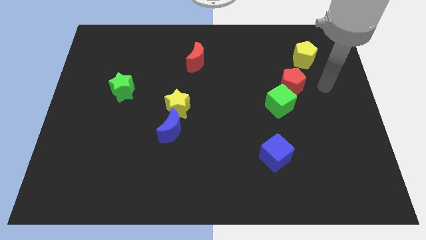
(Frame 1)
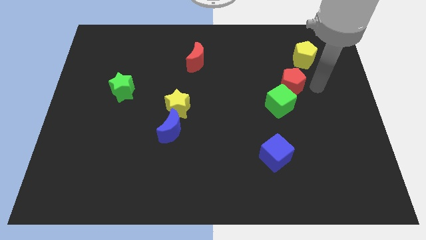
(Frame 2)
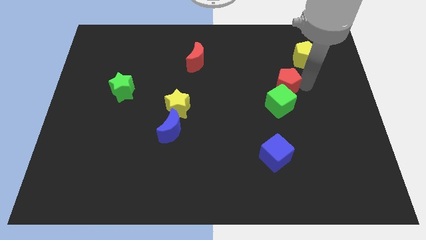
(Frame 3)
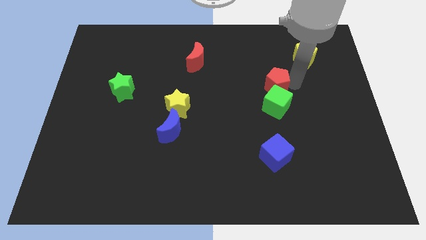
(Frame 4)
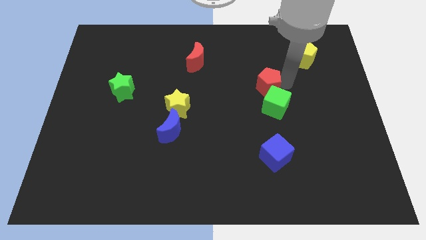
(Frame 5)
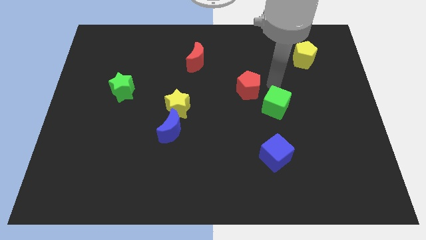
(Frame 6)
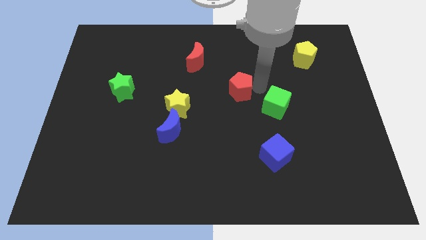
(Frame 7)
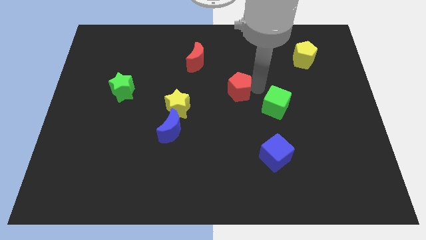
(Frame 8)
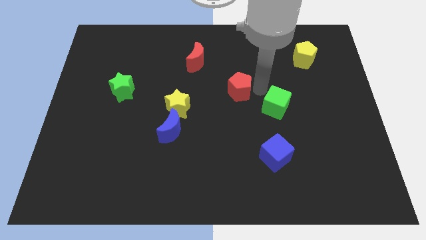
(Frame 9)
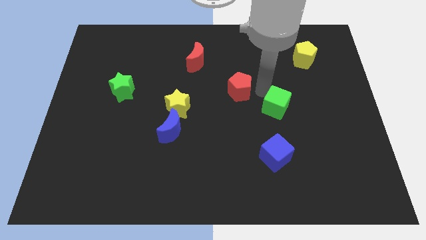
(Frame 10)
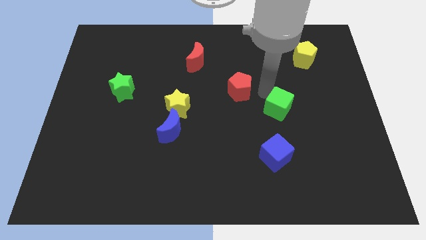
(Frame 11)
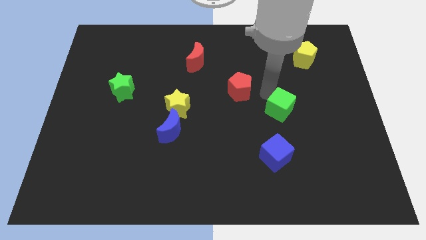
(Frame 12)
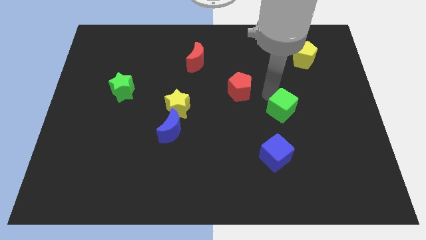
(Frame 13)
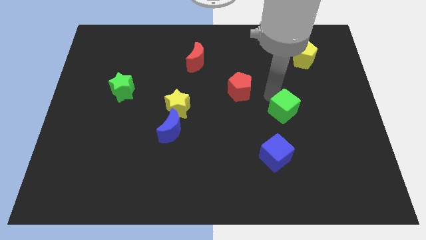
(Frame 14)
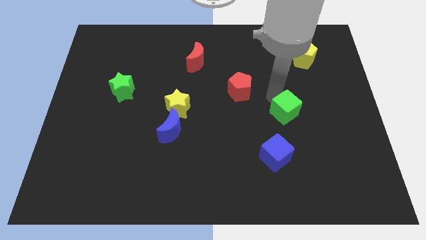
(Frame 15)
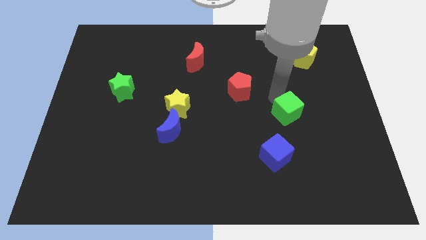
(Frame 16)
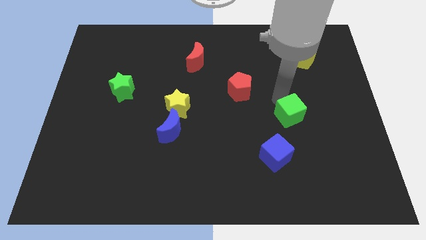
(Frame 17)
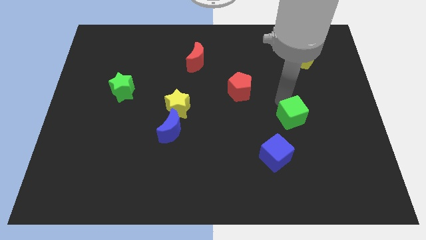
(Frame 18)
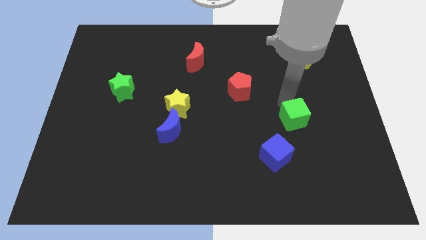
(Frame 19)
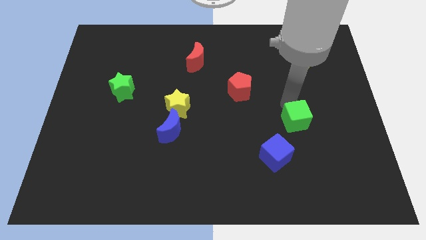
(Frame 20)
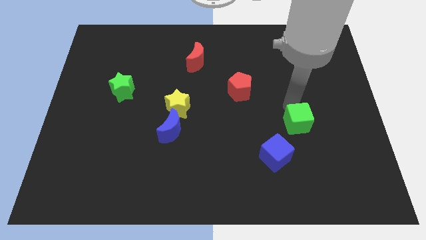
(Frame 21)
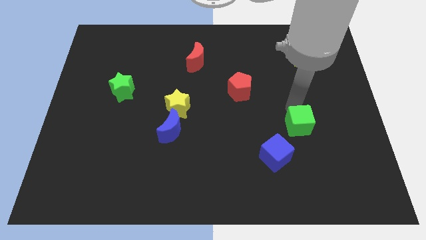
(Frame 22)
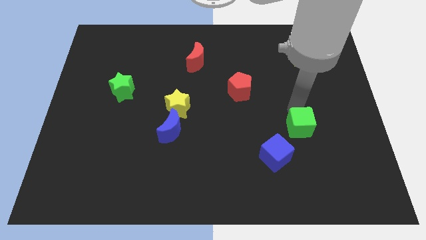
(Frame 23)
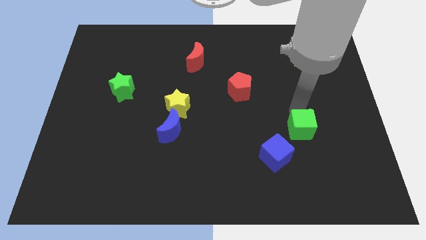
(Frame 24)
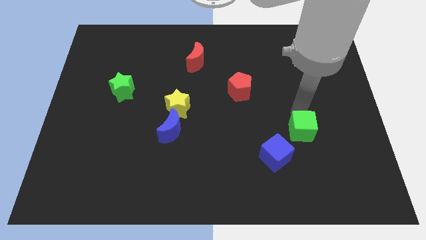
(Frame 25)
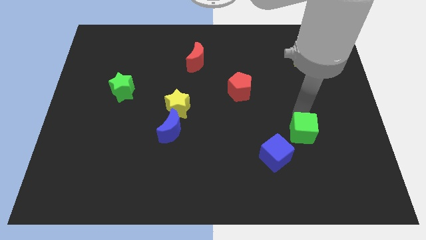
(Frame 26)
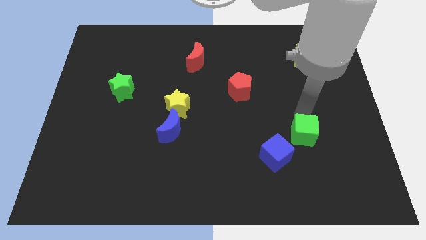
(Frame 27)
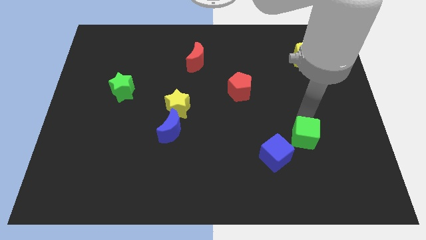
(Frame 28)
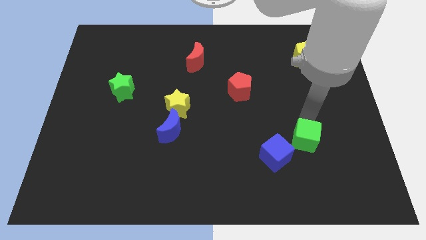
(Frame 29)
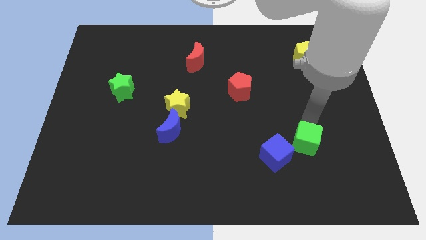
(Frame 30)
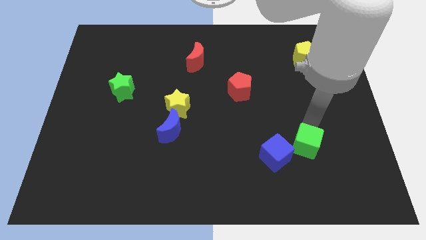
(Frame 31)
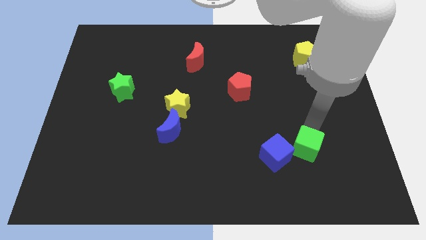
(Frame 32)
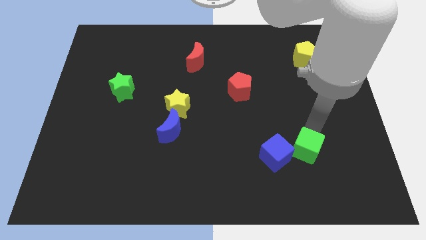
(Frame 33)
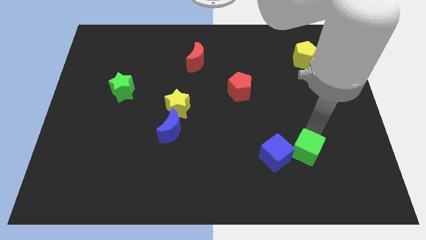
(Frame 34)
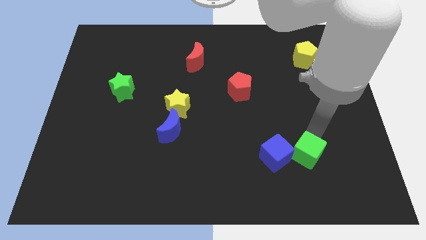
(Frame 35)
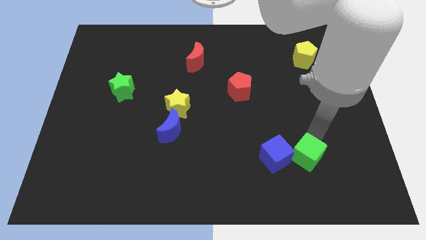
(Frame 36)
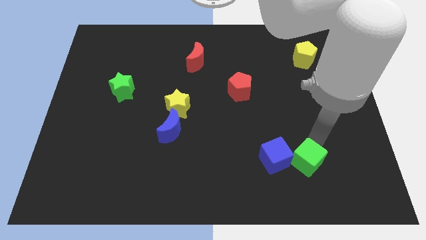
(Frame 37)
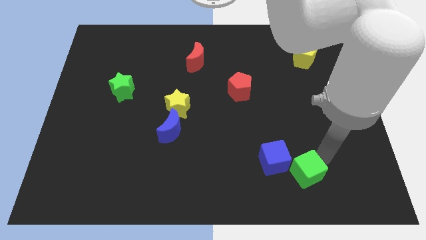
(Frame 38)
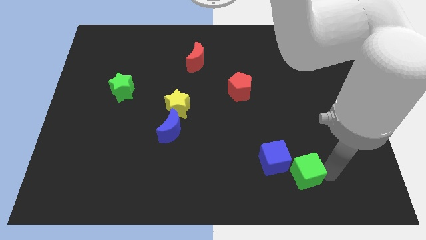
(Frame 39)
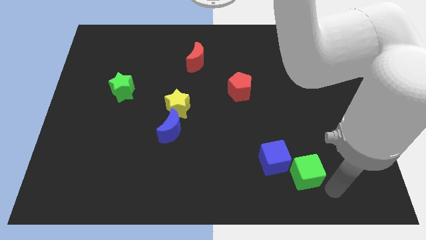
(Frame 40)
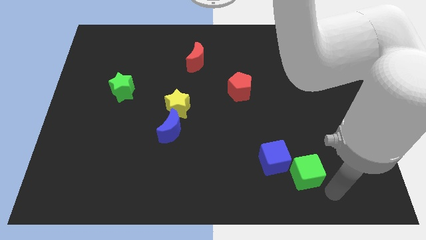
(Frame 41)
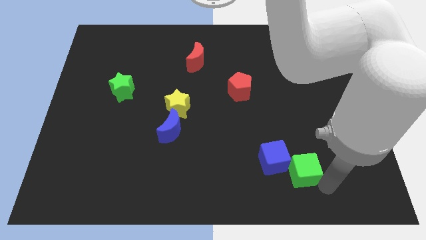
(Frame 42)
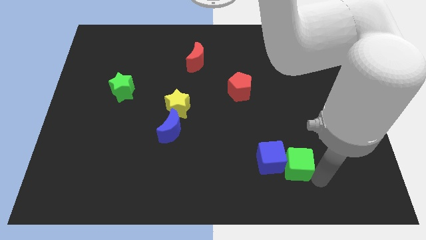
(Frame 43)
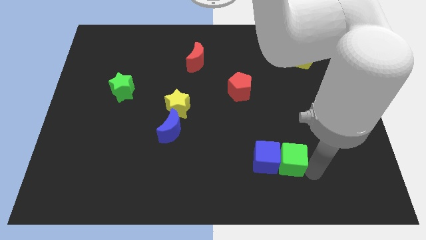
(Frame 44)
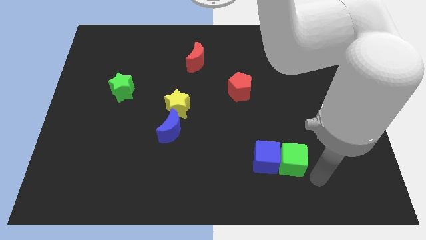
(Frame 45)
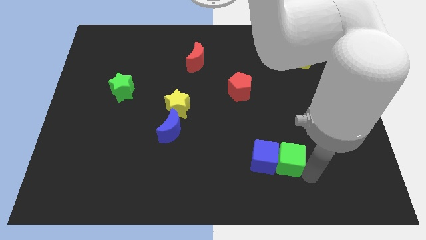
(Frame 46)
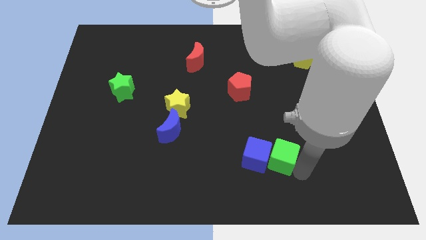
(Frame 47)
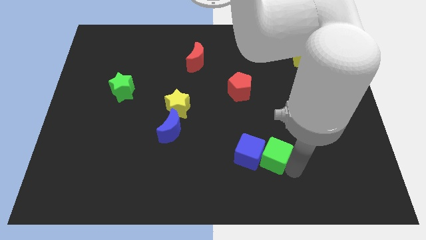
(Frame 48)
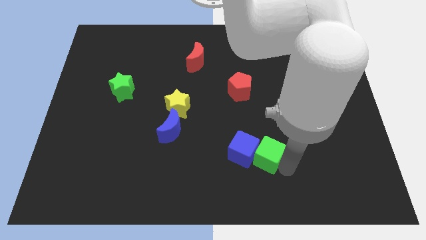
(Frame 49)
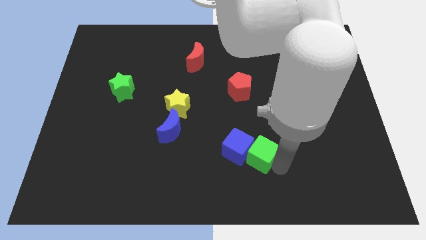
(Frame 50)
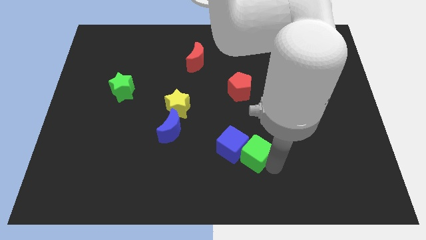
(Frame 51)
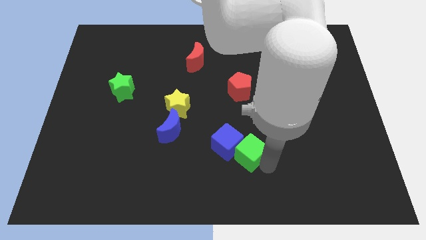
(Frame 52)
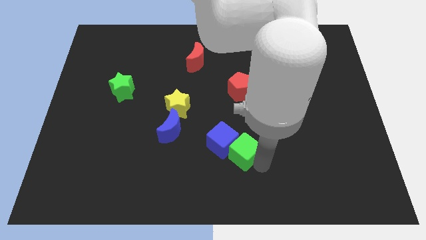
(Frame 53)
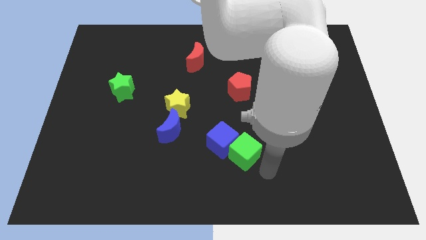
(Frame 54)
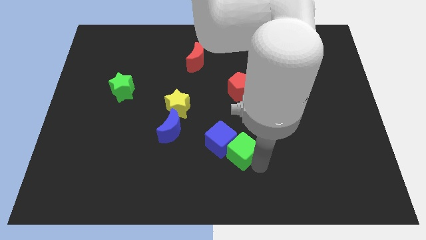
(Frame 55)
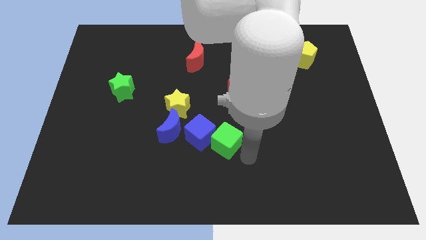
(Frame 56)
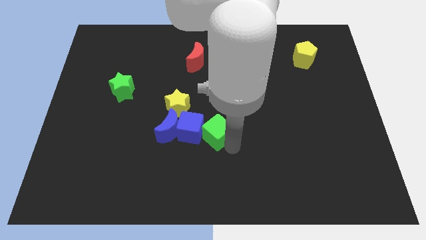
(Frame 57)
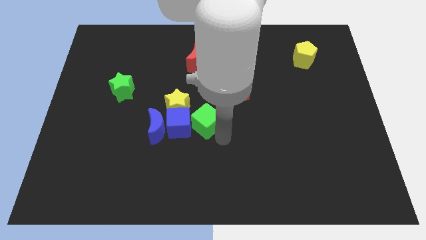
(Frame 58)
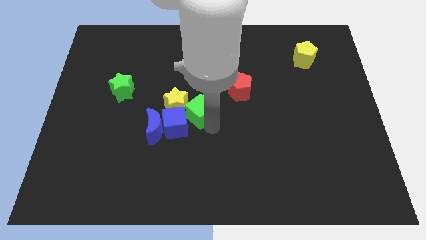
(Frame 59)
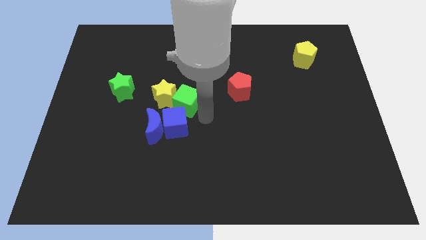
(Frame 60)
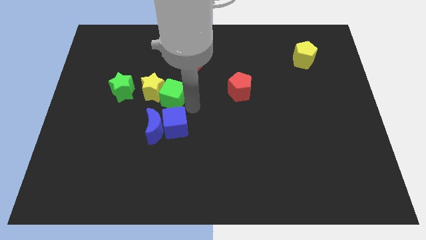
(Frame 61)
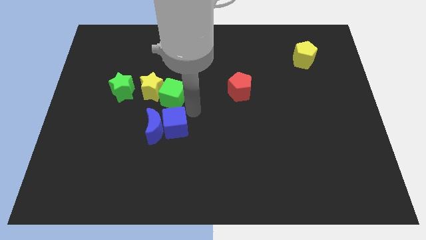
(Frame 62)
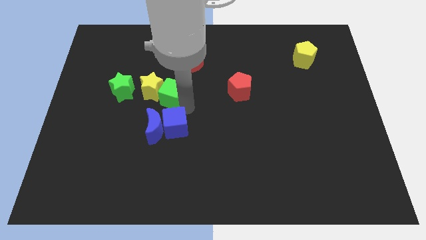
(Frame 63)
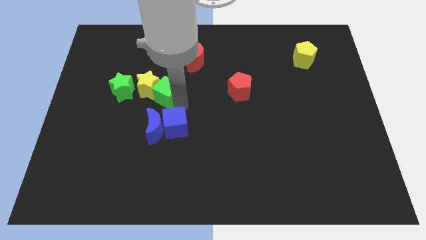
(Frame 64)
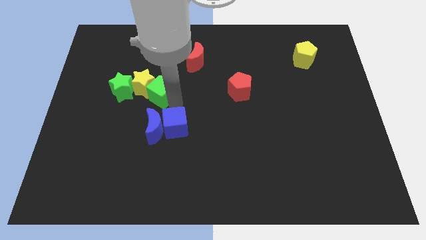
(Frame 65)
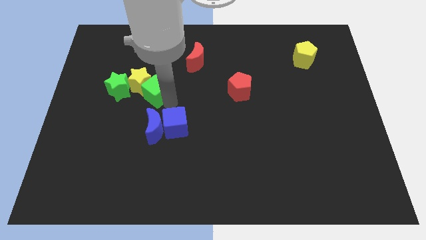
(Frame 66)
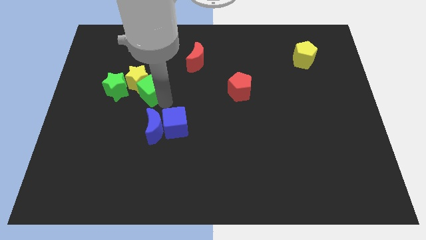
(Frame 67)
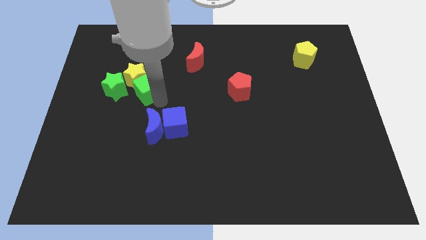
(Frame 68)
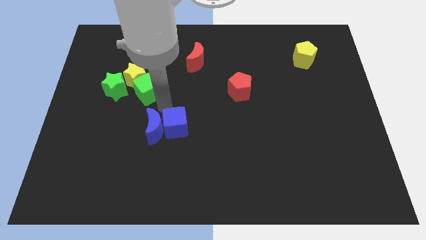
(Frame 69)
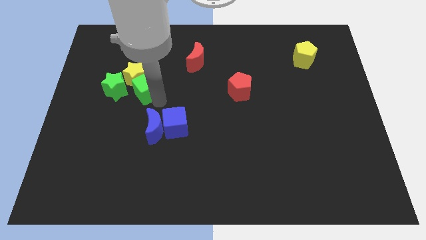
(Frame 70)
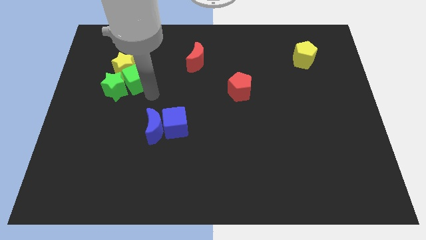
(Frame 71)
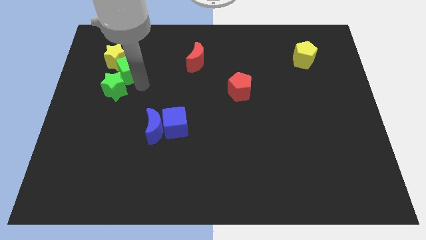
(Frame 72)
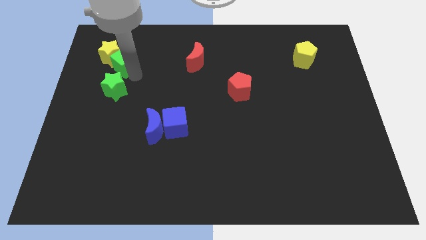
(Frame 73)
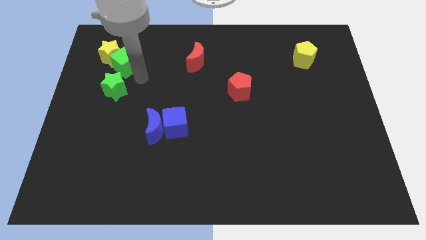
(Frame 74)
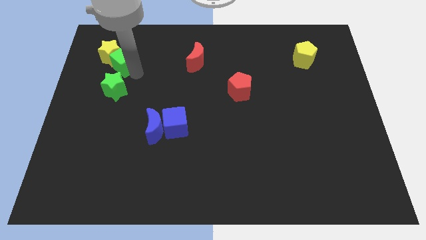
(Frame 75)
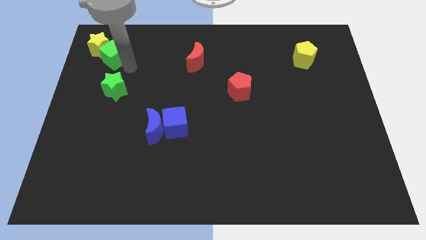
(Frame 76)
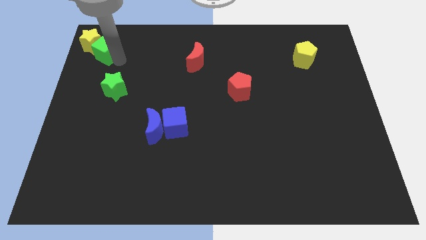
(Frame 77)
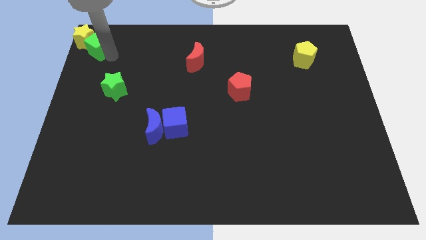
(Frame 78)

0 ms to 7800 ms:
slide the green cube to the top left
